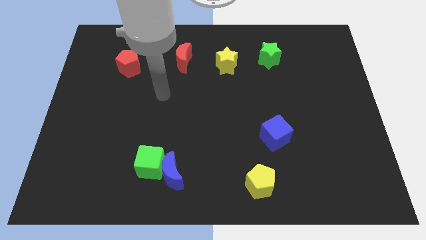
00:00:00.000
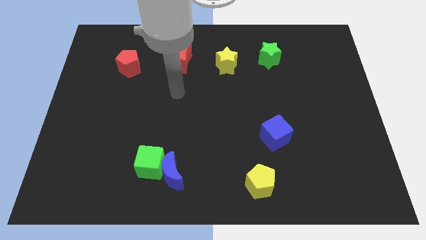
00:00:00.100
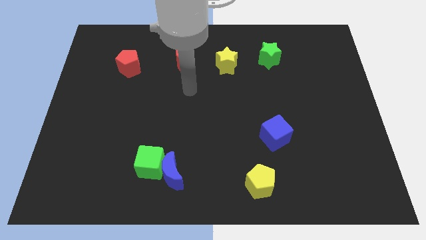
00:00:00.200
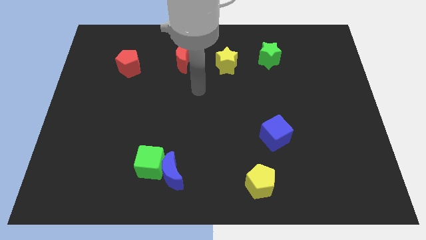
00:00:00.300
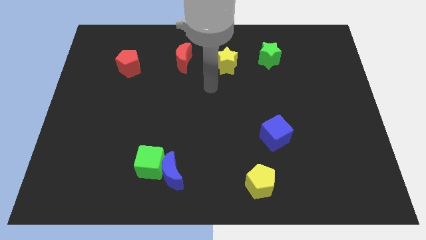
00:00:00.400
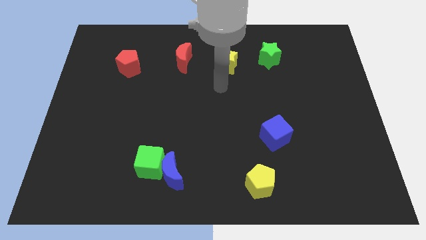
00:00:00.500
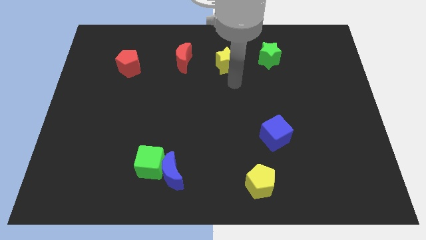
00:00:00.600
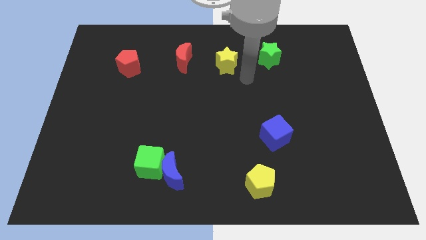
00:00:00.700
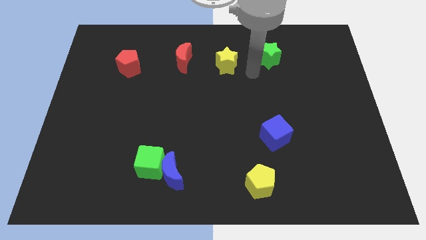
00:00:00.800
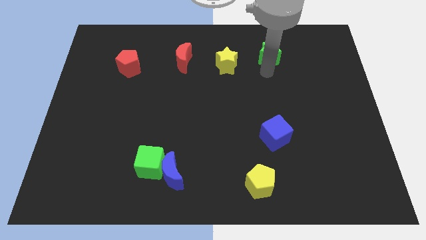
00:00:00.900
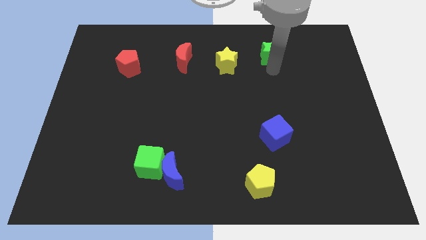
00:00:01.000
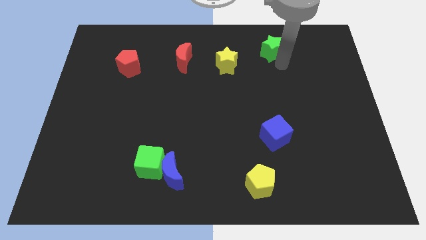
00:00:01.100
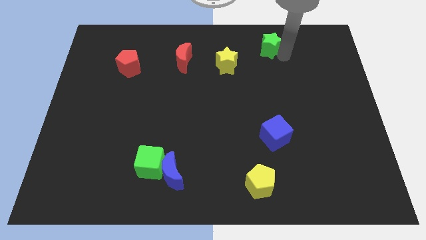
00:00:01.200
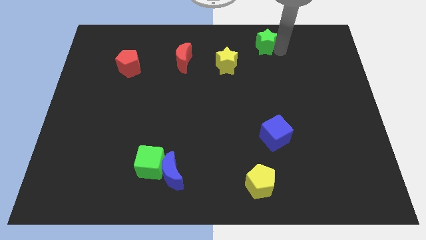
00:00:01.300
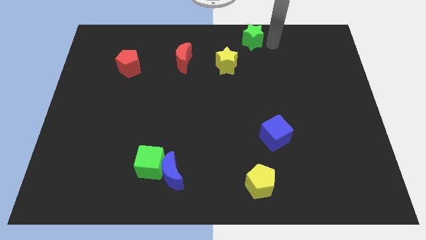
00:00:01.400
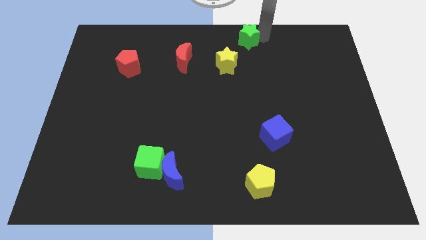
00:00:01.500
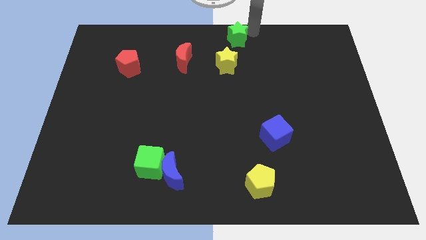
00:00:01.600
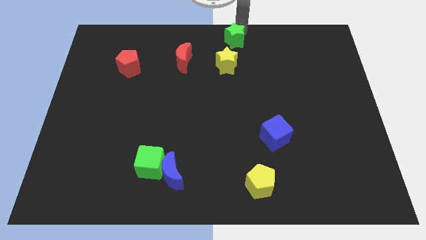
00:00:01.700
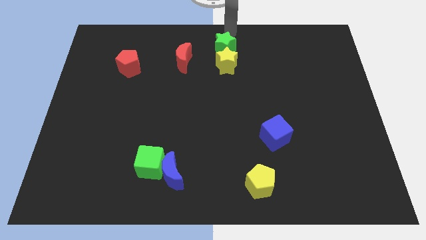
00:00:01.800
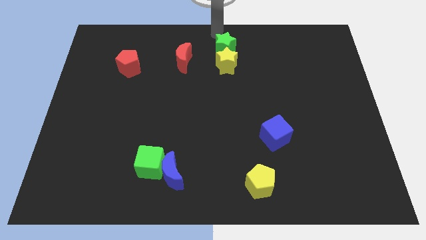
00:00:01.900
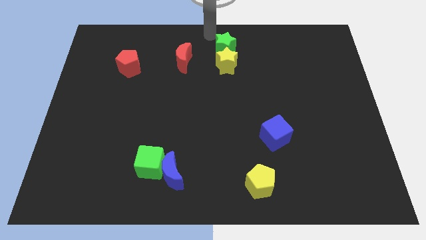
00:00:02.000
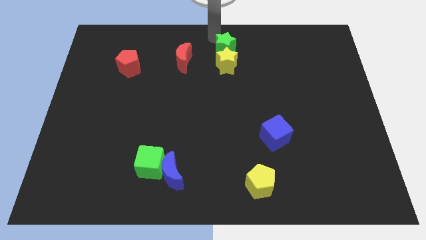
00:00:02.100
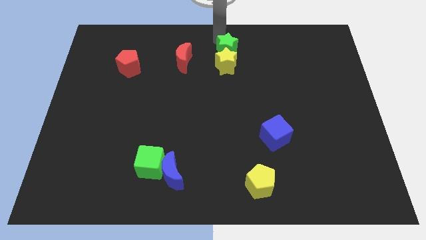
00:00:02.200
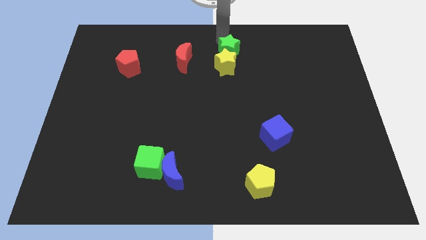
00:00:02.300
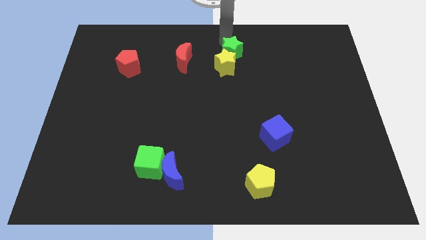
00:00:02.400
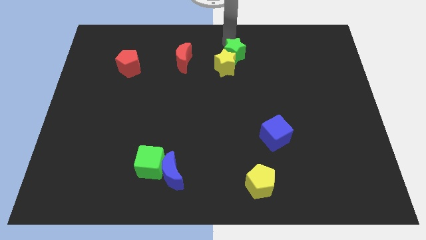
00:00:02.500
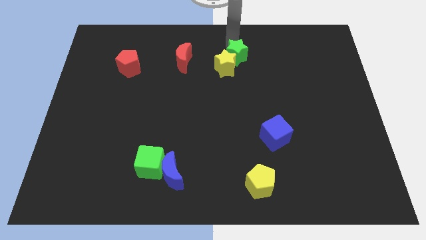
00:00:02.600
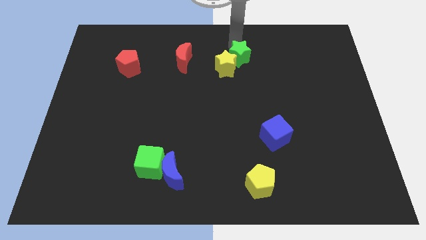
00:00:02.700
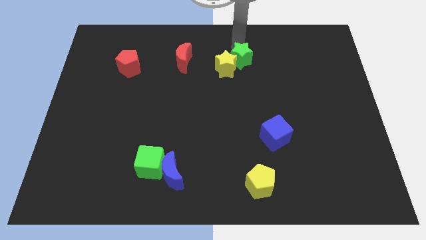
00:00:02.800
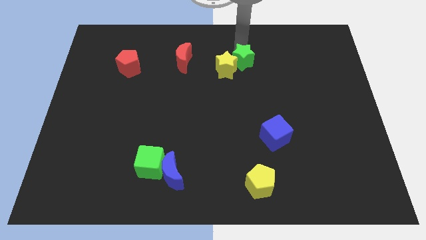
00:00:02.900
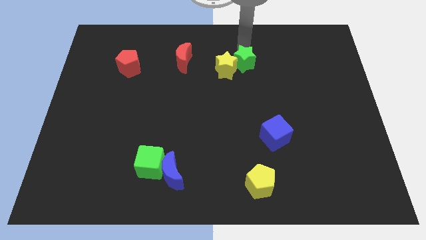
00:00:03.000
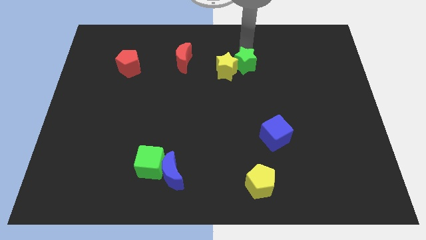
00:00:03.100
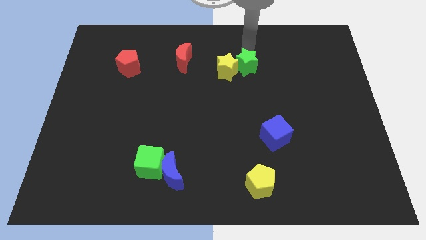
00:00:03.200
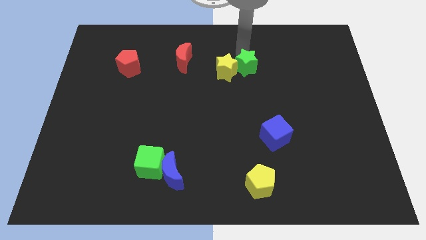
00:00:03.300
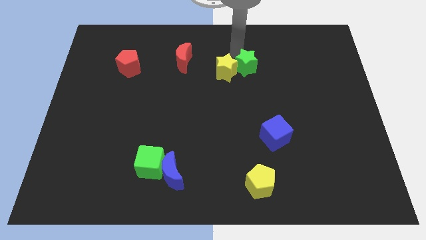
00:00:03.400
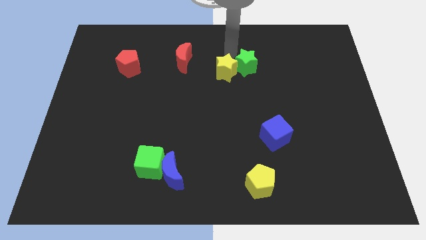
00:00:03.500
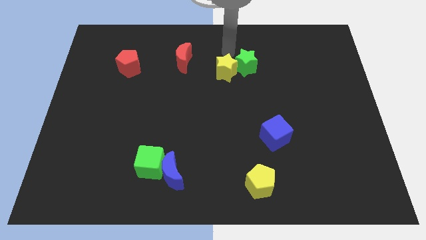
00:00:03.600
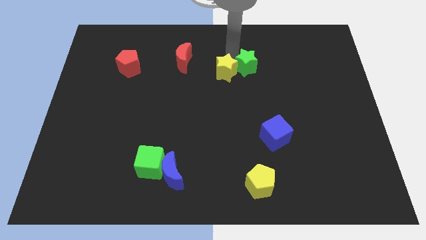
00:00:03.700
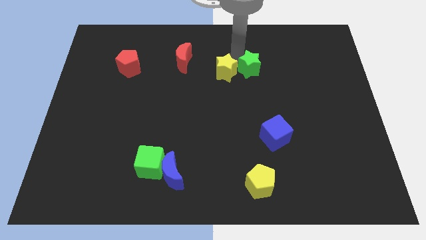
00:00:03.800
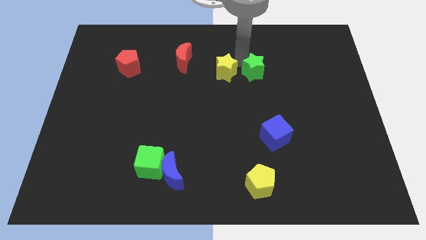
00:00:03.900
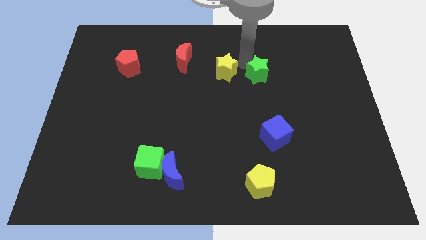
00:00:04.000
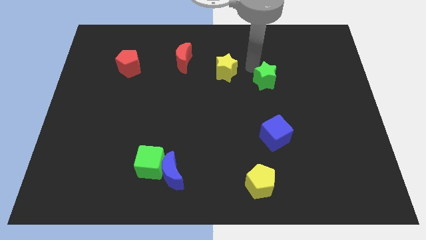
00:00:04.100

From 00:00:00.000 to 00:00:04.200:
slightly push the green star downwards

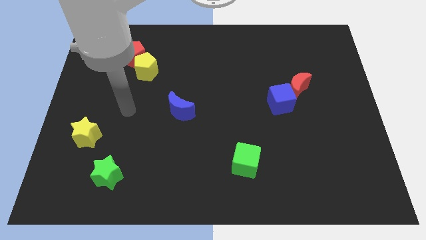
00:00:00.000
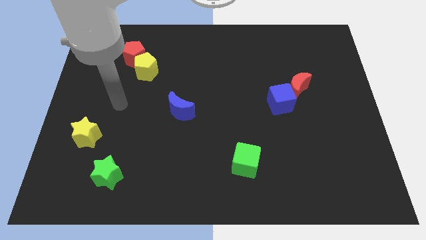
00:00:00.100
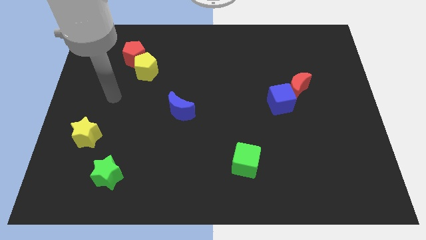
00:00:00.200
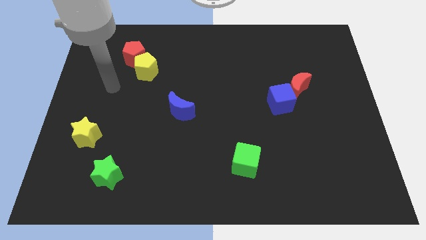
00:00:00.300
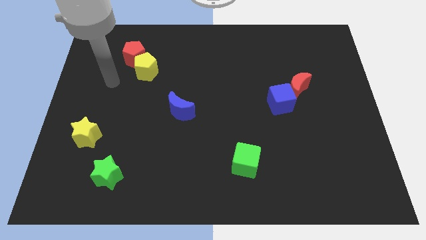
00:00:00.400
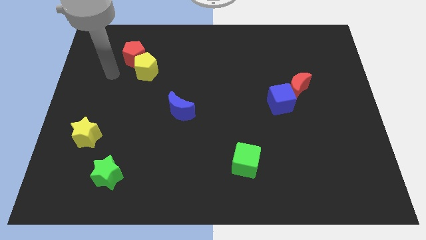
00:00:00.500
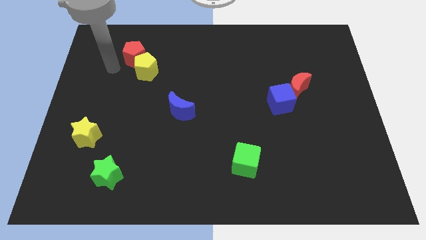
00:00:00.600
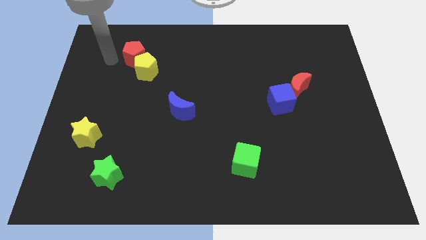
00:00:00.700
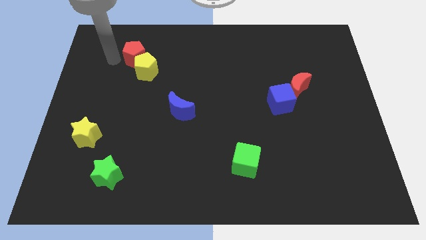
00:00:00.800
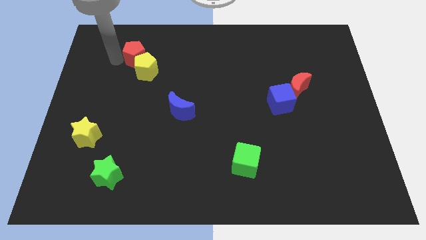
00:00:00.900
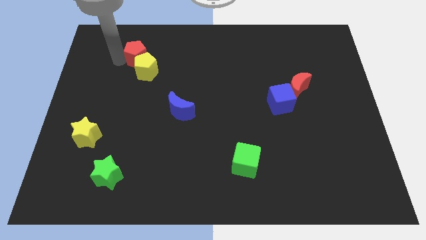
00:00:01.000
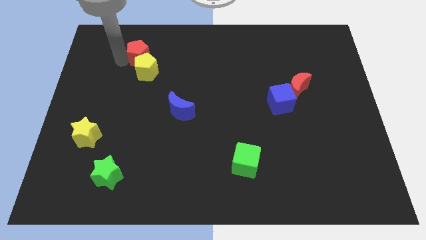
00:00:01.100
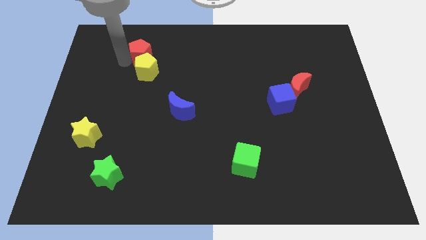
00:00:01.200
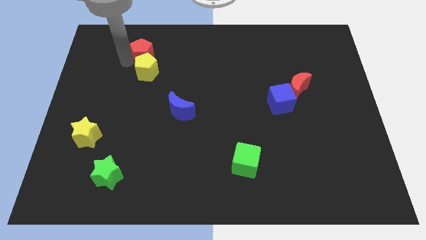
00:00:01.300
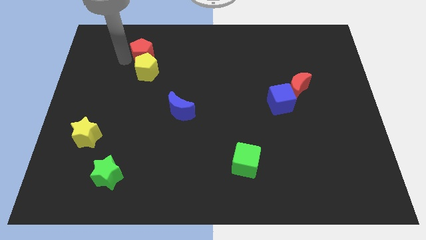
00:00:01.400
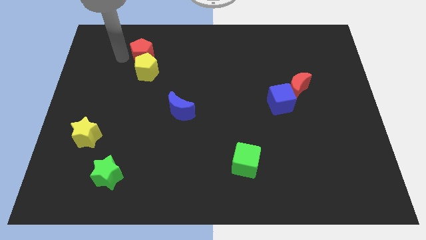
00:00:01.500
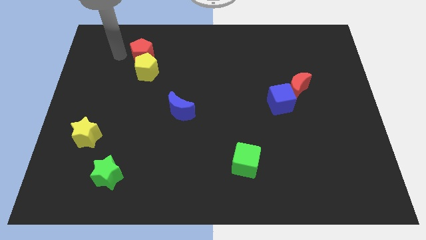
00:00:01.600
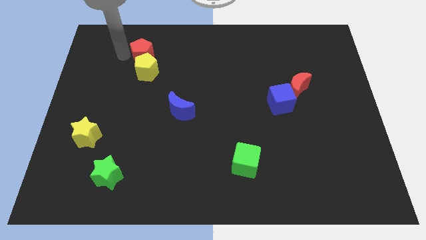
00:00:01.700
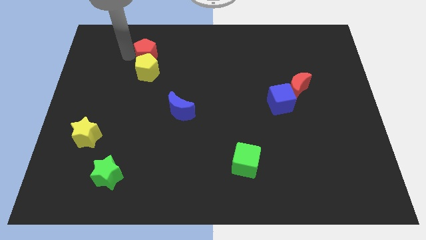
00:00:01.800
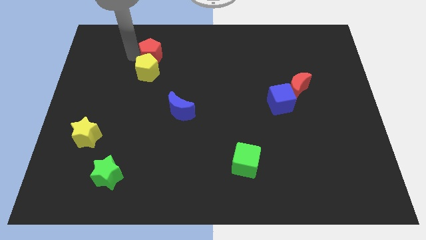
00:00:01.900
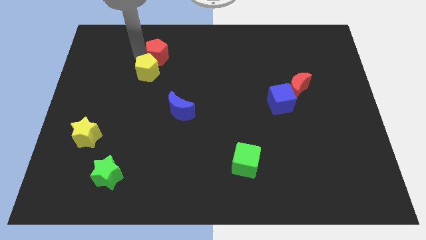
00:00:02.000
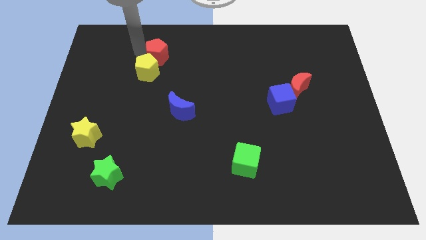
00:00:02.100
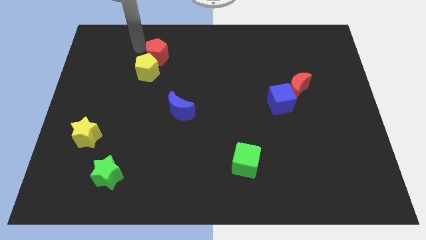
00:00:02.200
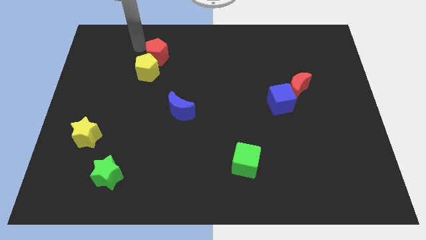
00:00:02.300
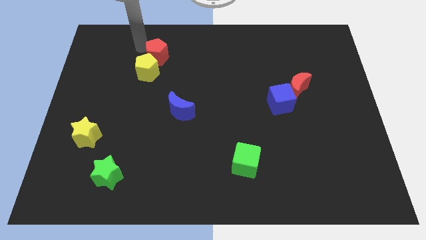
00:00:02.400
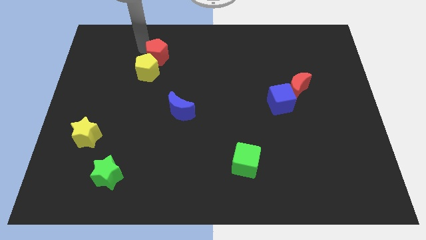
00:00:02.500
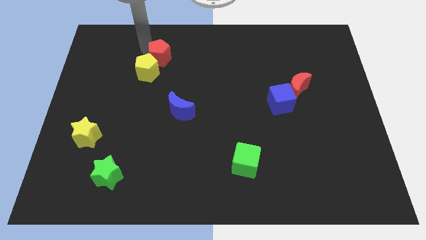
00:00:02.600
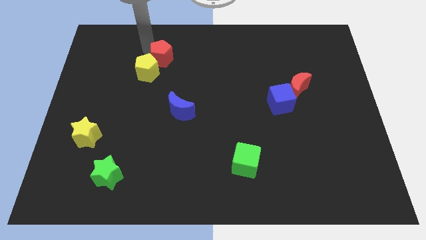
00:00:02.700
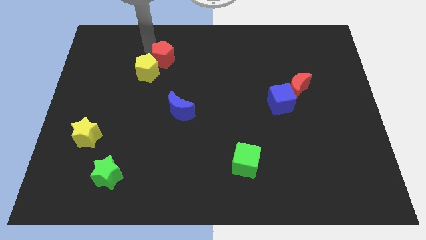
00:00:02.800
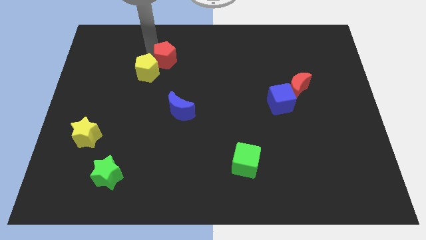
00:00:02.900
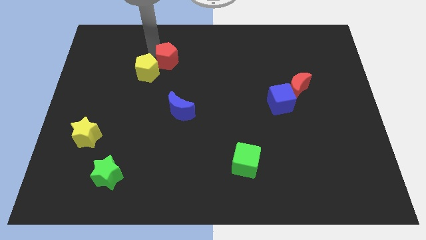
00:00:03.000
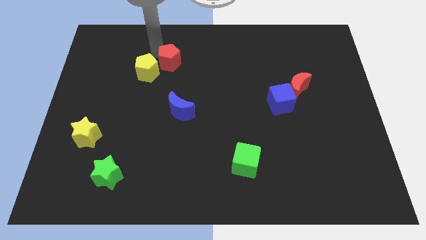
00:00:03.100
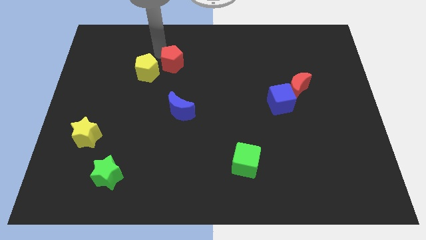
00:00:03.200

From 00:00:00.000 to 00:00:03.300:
move the red pentagon down and then to the right a bit

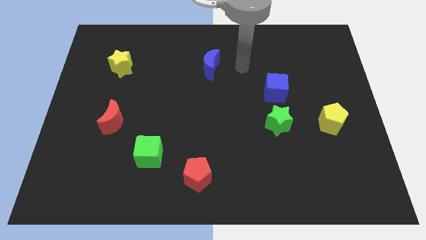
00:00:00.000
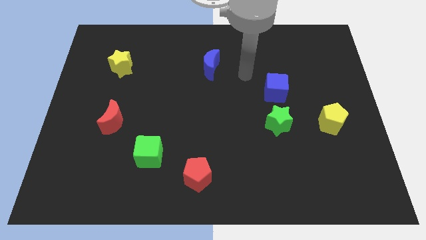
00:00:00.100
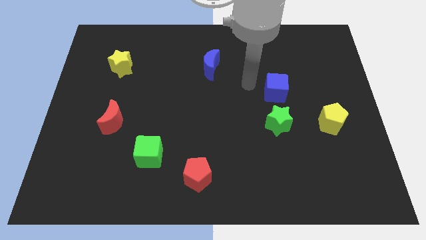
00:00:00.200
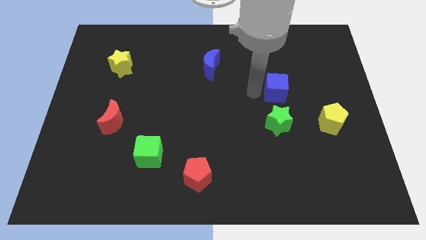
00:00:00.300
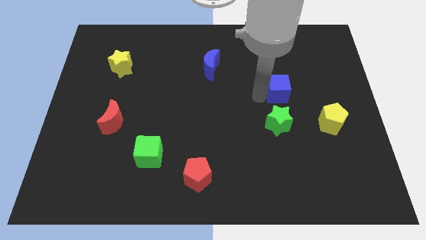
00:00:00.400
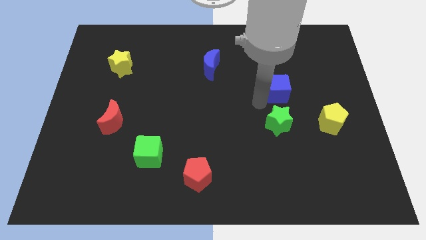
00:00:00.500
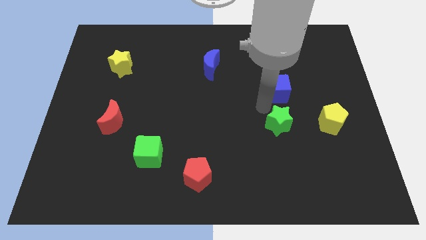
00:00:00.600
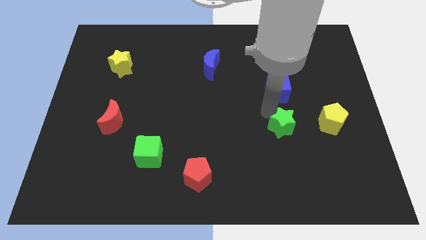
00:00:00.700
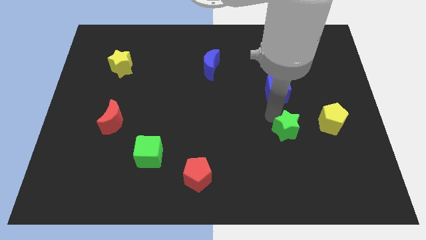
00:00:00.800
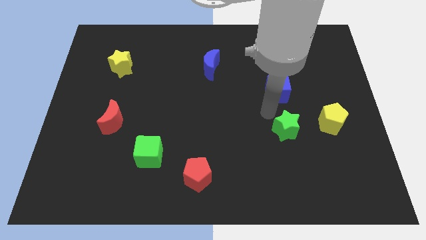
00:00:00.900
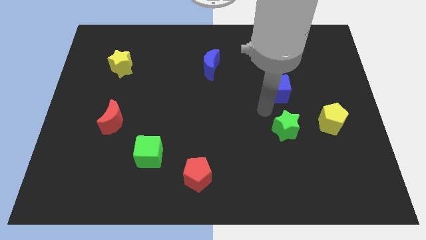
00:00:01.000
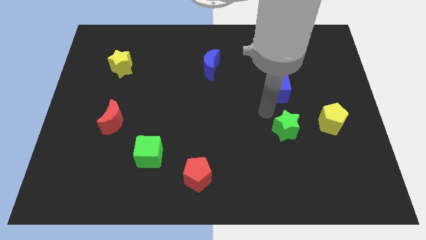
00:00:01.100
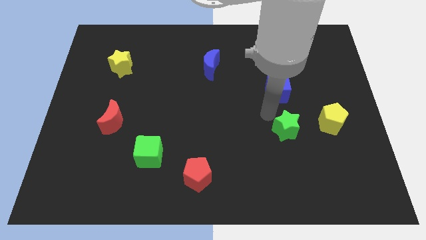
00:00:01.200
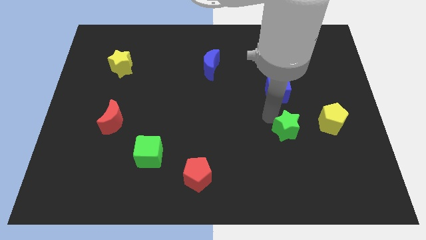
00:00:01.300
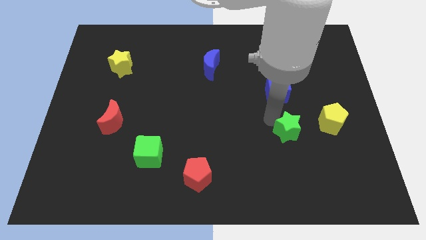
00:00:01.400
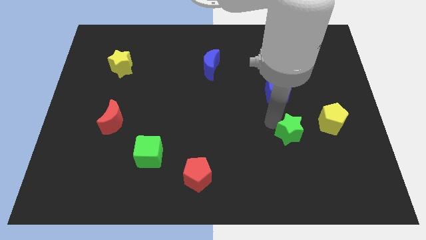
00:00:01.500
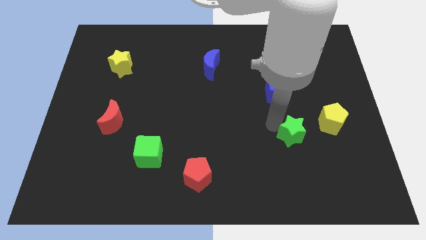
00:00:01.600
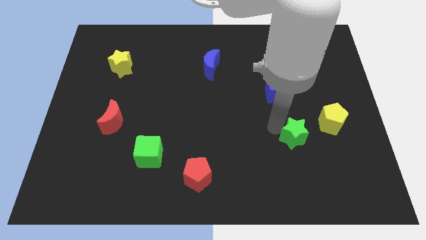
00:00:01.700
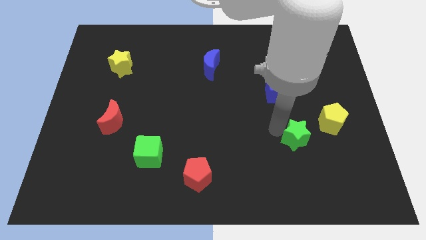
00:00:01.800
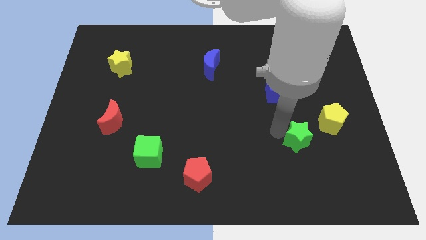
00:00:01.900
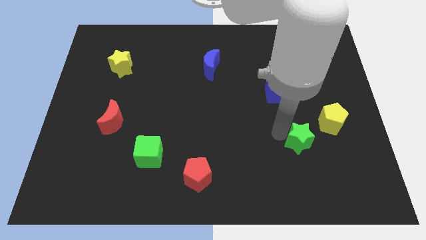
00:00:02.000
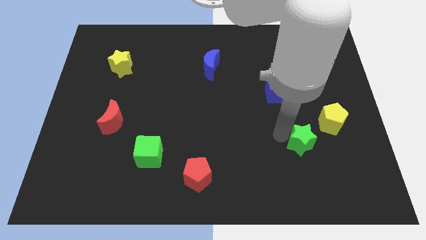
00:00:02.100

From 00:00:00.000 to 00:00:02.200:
push the green star diagonally downwards and to the right slightly
